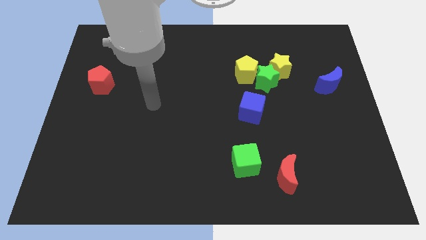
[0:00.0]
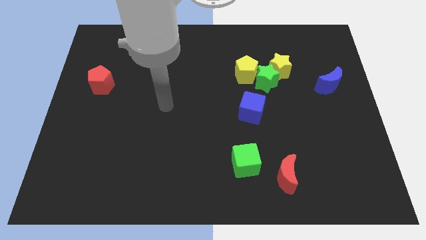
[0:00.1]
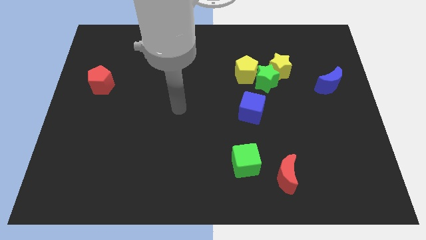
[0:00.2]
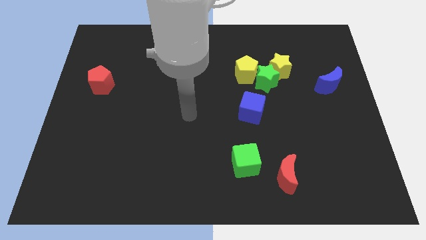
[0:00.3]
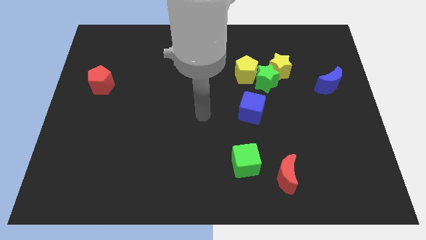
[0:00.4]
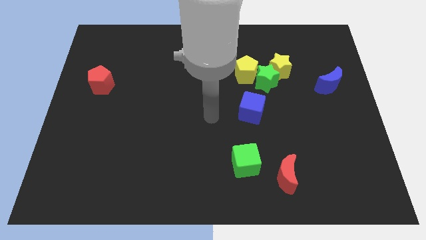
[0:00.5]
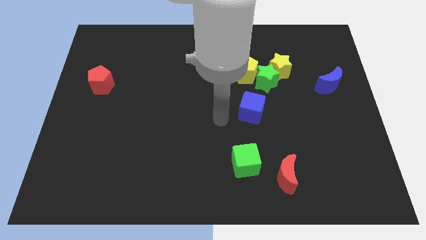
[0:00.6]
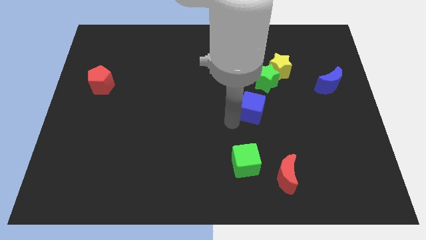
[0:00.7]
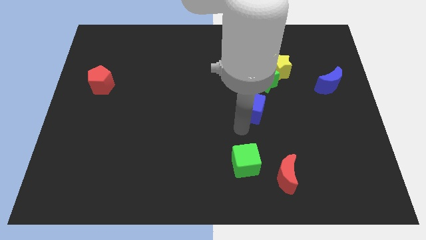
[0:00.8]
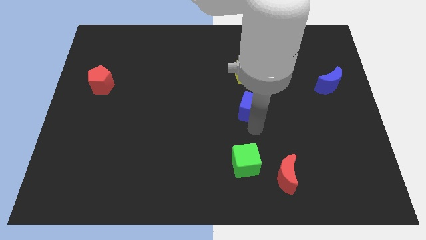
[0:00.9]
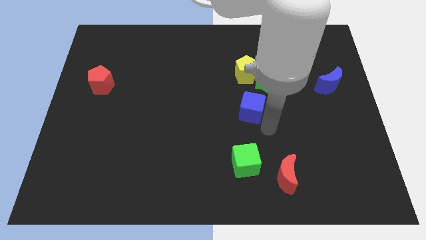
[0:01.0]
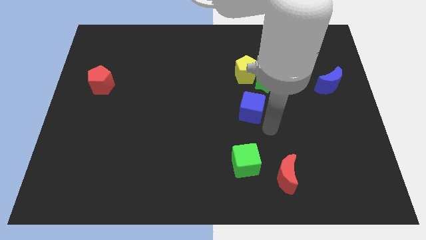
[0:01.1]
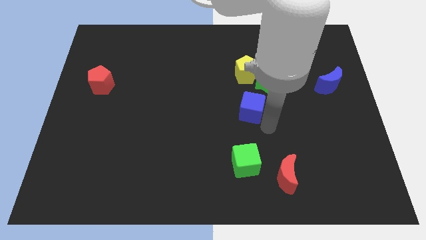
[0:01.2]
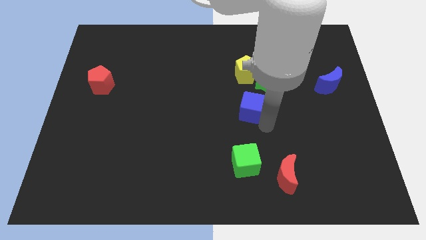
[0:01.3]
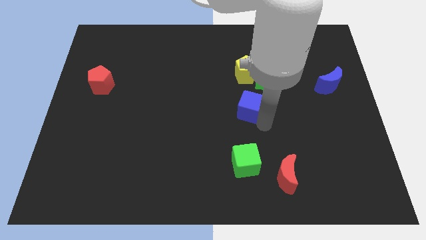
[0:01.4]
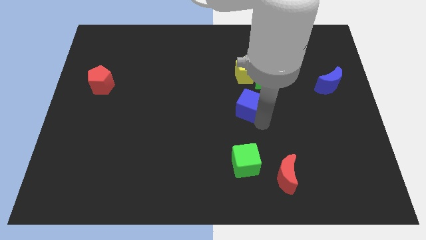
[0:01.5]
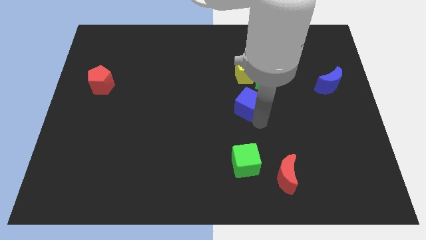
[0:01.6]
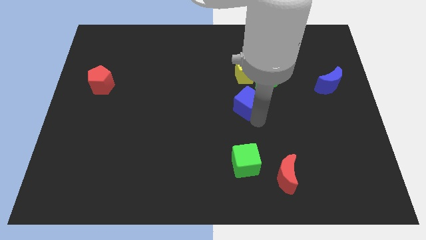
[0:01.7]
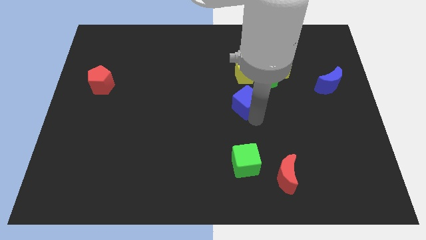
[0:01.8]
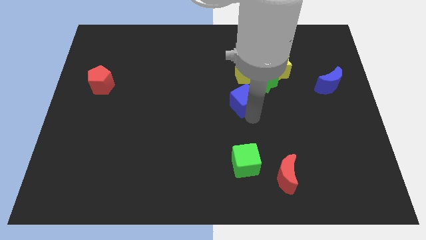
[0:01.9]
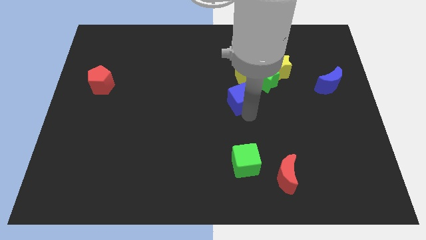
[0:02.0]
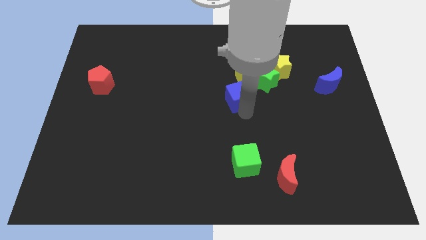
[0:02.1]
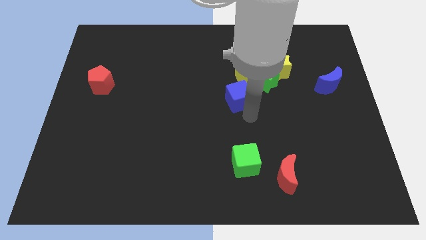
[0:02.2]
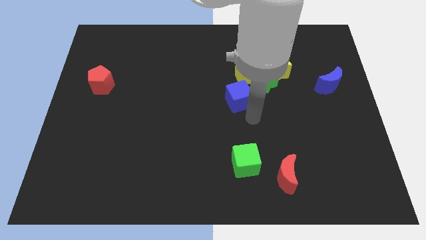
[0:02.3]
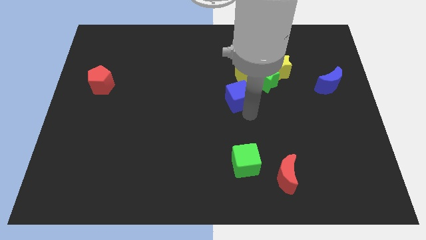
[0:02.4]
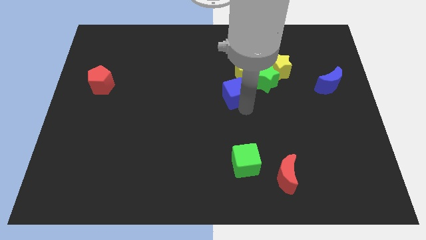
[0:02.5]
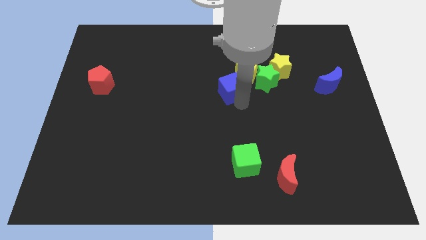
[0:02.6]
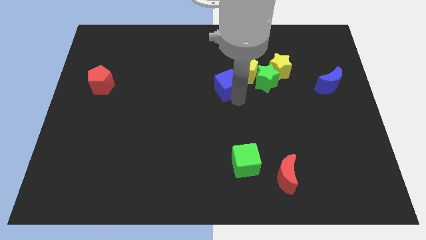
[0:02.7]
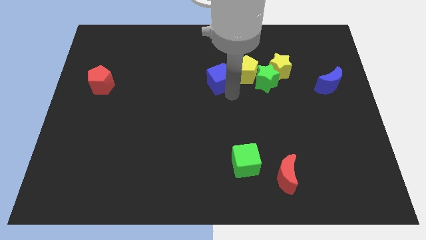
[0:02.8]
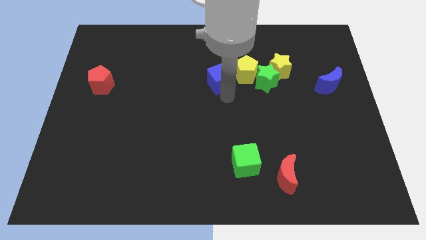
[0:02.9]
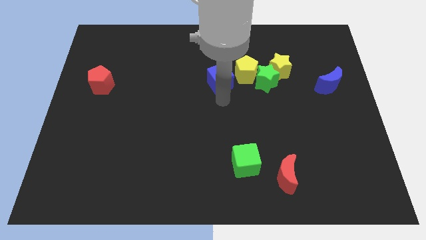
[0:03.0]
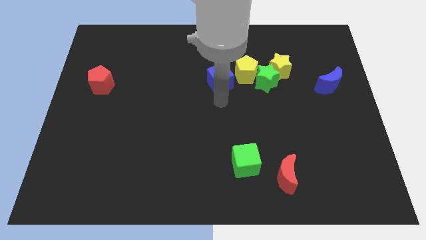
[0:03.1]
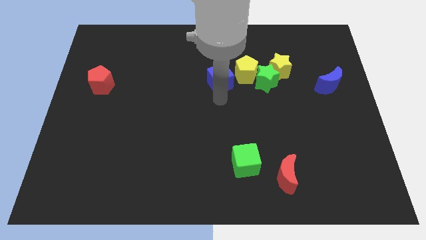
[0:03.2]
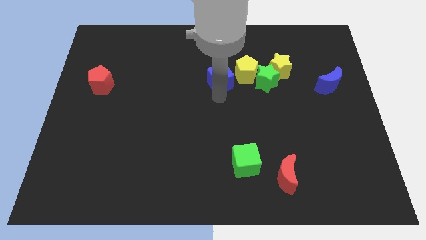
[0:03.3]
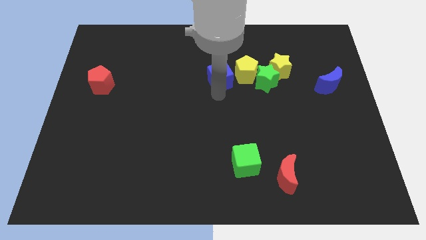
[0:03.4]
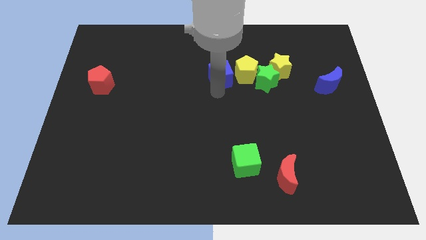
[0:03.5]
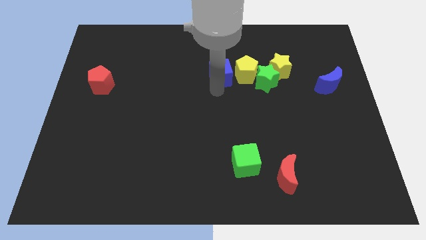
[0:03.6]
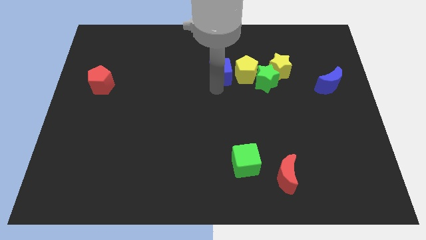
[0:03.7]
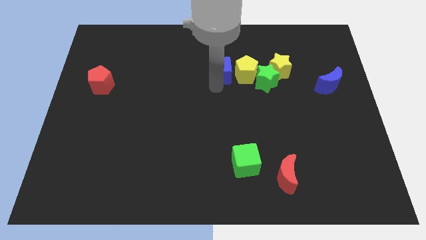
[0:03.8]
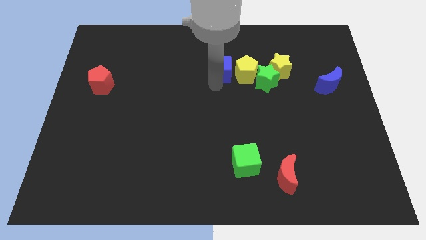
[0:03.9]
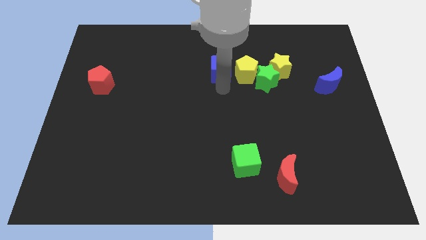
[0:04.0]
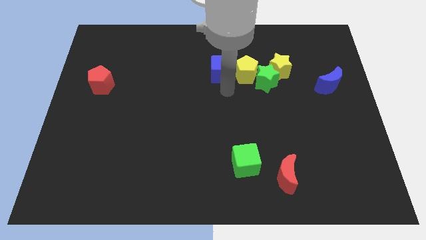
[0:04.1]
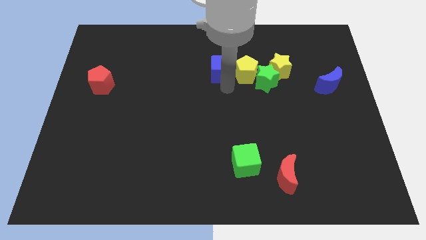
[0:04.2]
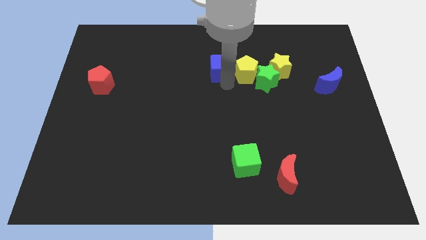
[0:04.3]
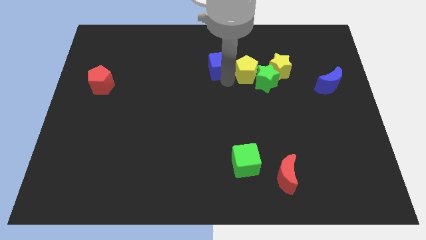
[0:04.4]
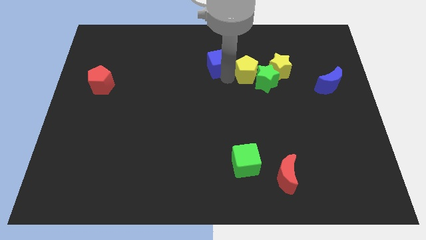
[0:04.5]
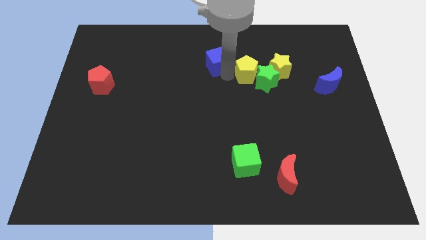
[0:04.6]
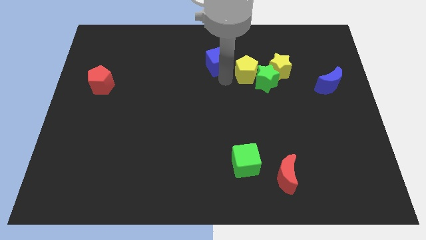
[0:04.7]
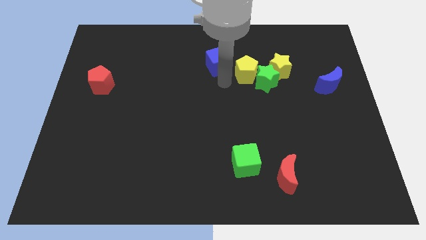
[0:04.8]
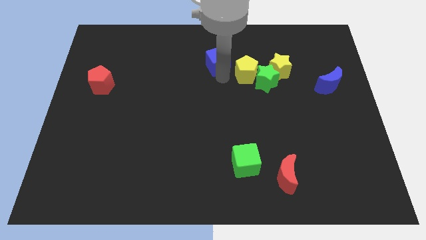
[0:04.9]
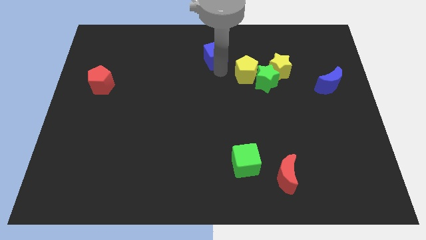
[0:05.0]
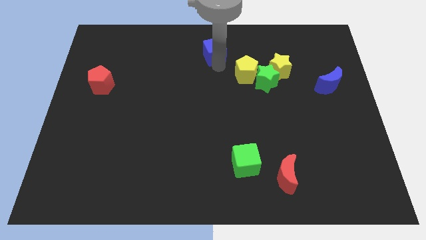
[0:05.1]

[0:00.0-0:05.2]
push the blue cube to the top

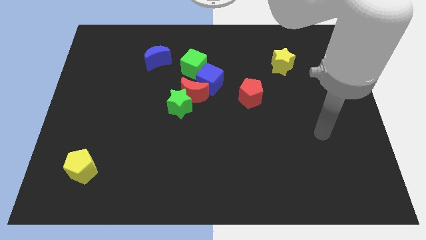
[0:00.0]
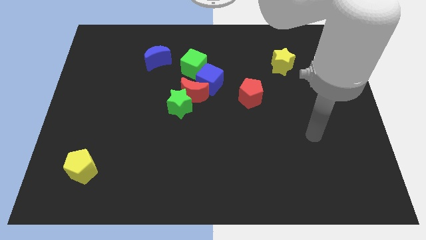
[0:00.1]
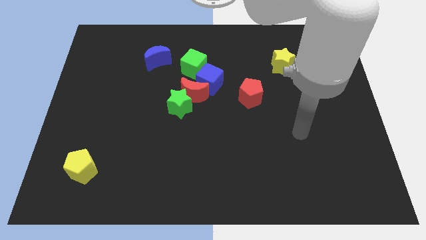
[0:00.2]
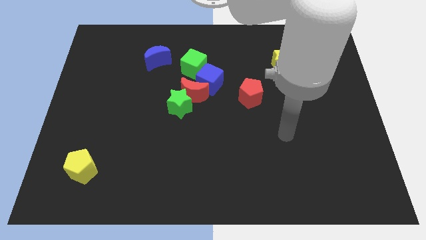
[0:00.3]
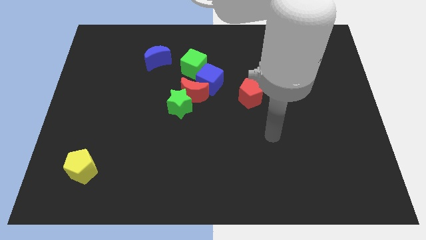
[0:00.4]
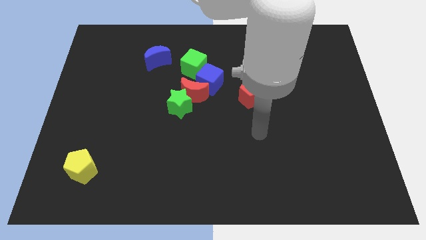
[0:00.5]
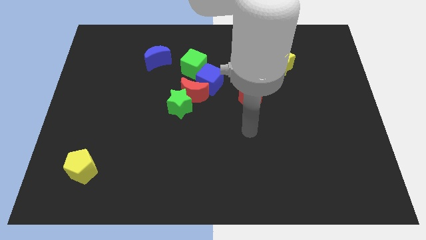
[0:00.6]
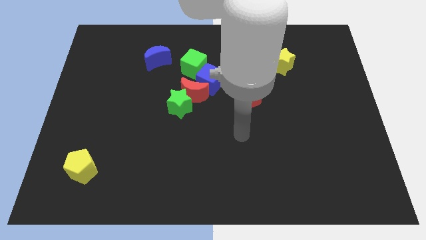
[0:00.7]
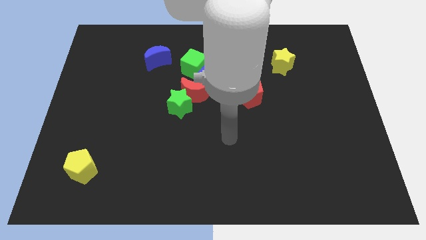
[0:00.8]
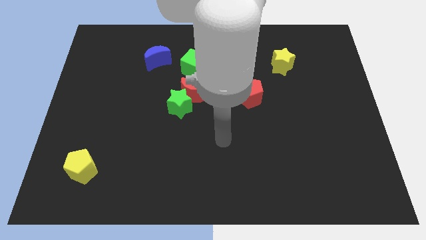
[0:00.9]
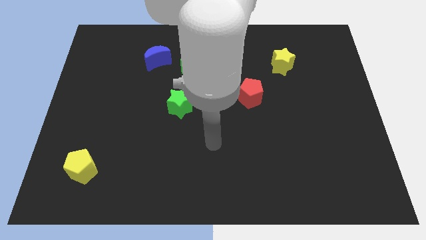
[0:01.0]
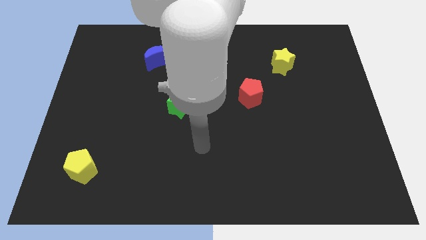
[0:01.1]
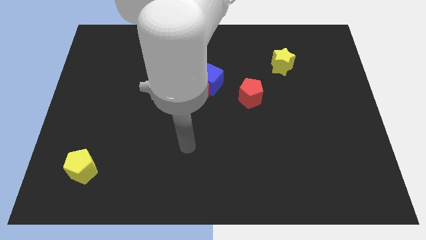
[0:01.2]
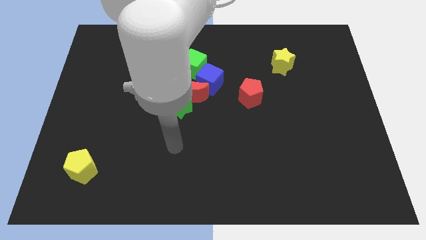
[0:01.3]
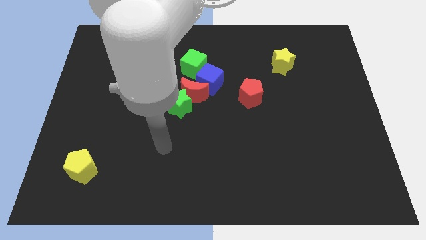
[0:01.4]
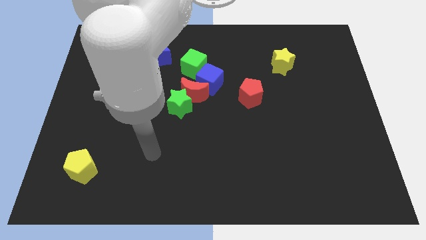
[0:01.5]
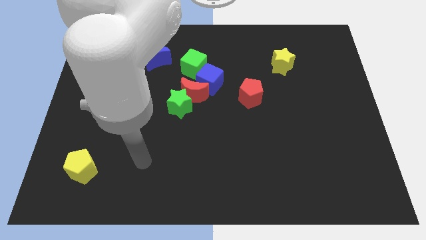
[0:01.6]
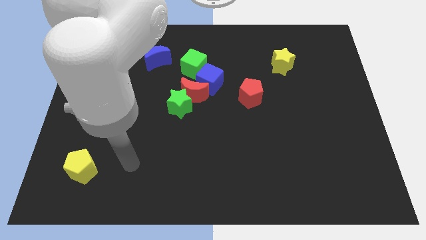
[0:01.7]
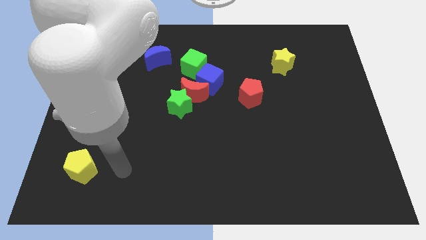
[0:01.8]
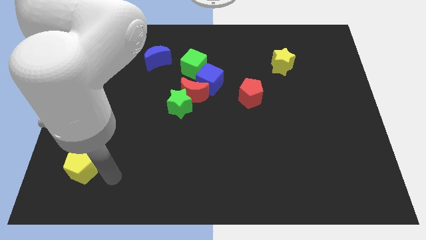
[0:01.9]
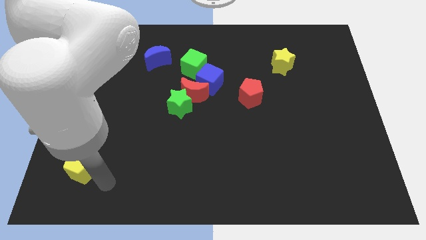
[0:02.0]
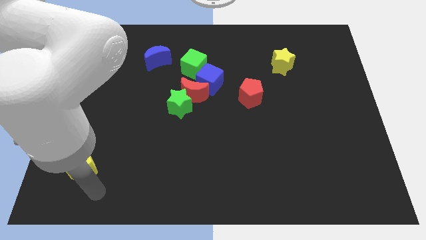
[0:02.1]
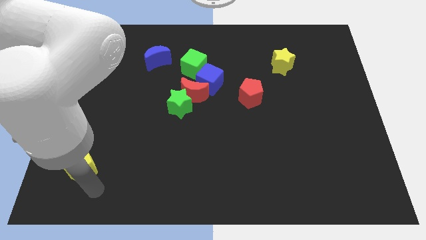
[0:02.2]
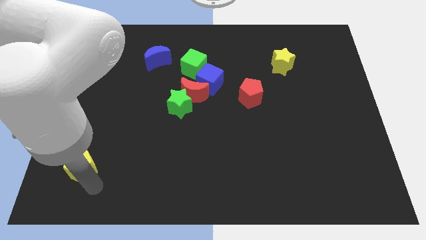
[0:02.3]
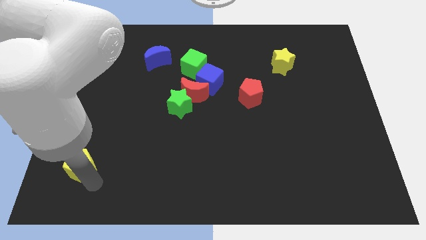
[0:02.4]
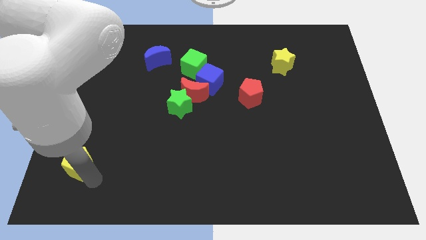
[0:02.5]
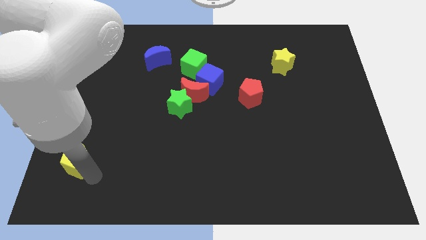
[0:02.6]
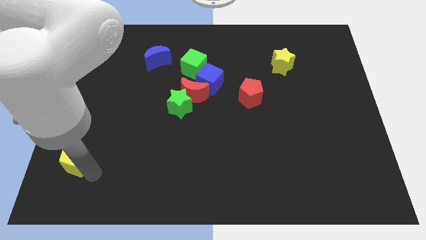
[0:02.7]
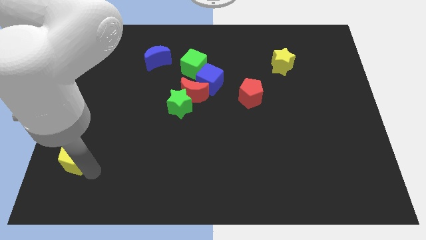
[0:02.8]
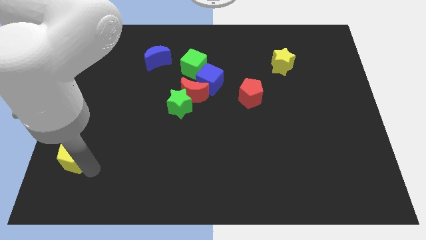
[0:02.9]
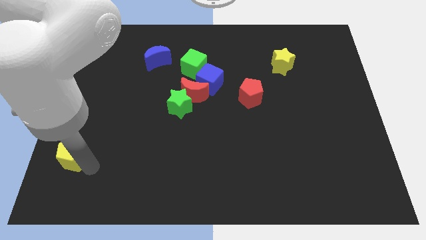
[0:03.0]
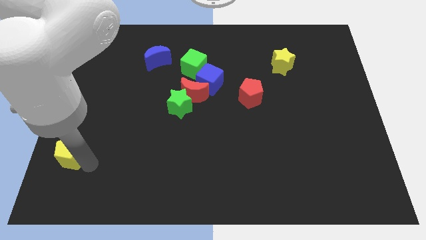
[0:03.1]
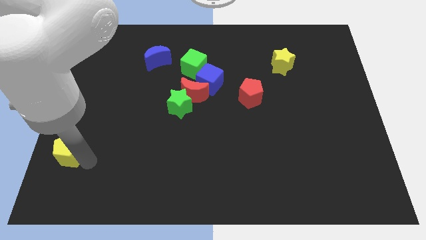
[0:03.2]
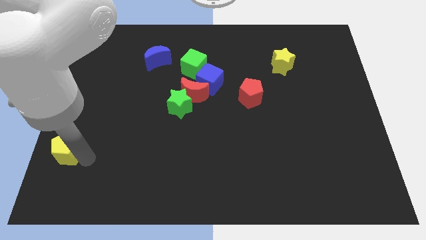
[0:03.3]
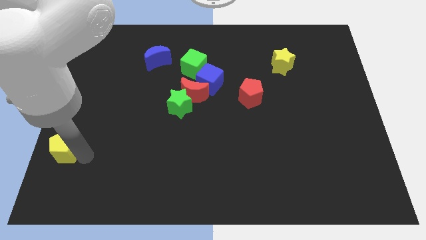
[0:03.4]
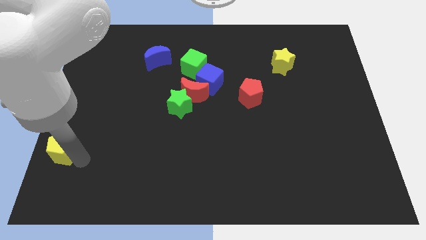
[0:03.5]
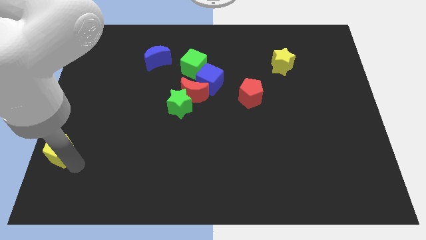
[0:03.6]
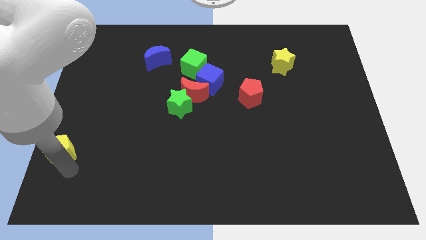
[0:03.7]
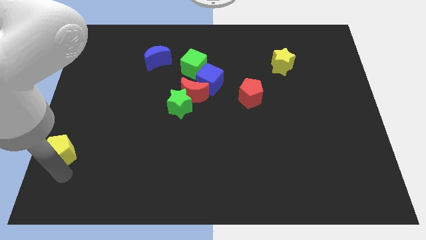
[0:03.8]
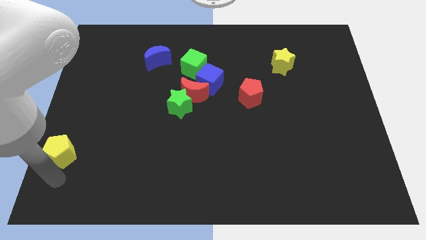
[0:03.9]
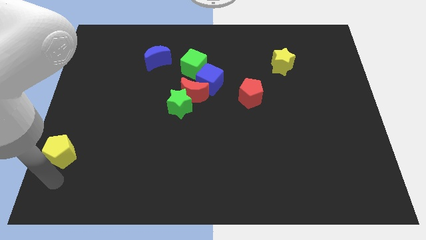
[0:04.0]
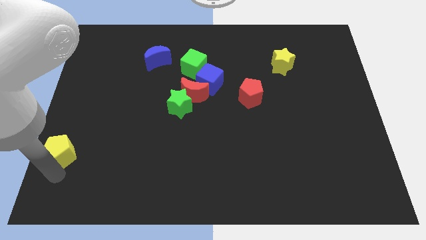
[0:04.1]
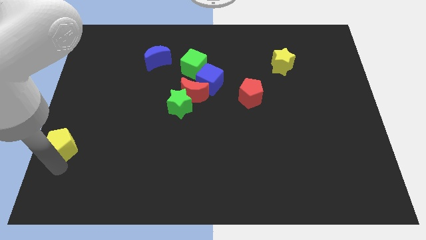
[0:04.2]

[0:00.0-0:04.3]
slide the yellow pentagon to the left side
